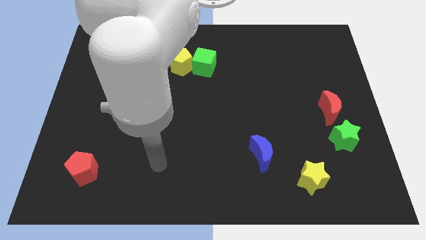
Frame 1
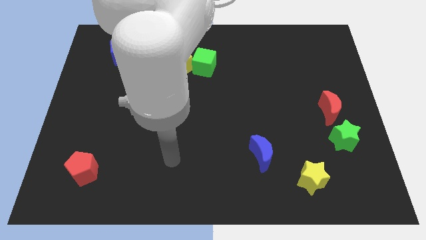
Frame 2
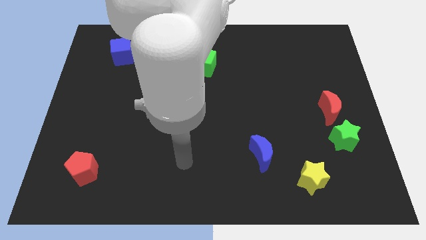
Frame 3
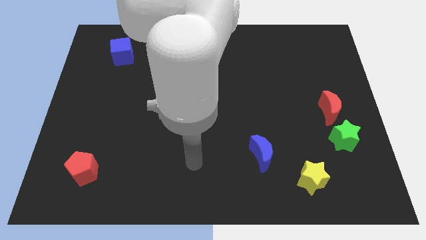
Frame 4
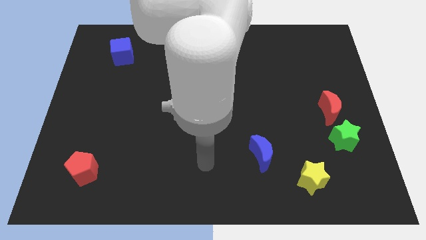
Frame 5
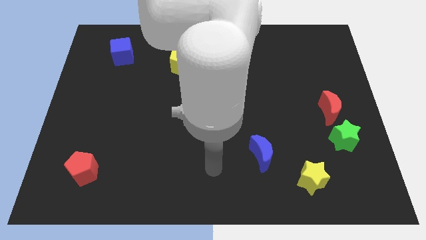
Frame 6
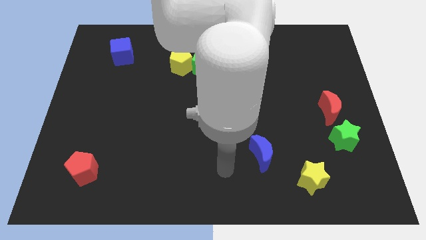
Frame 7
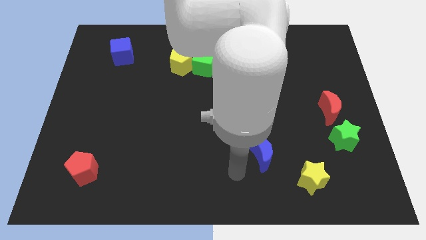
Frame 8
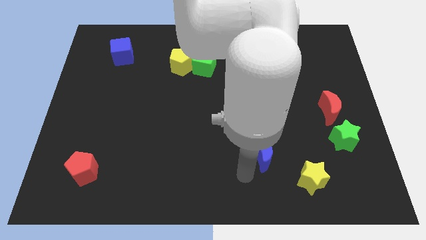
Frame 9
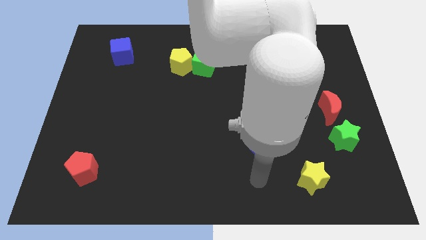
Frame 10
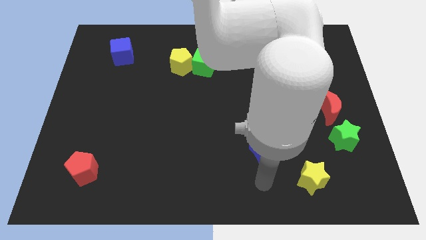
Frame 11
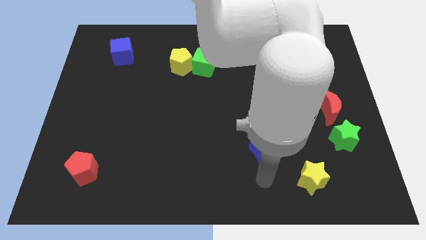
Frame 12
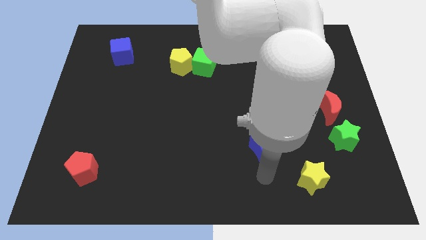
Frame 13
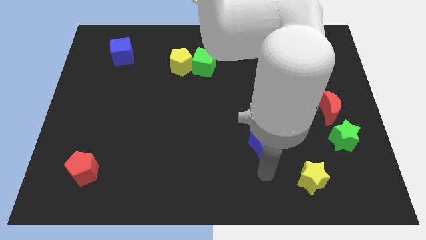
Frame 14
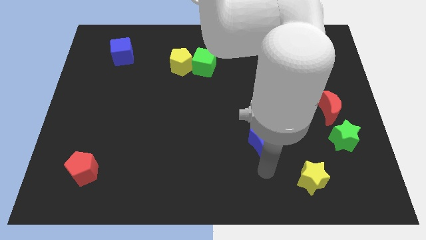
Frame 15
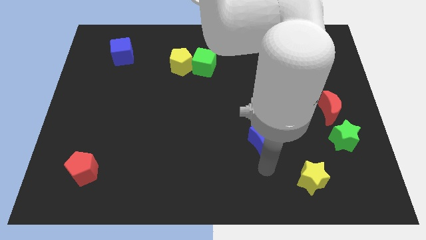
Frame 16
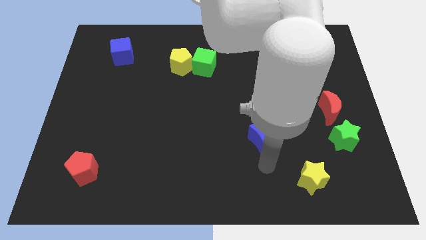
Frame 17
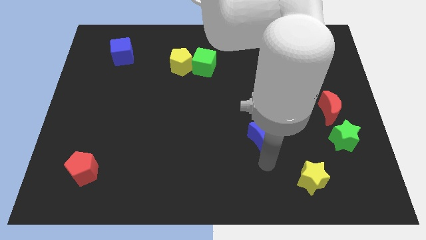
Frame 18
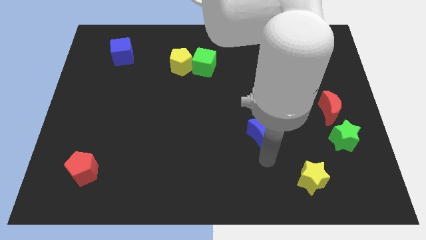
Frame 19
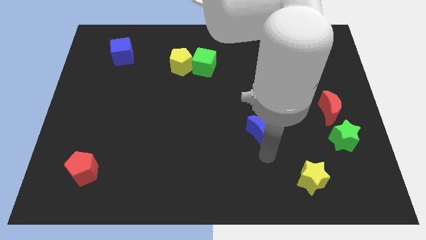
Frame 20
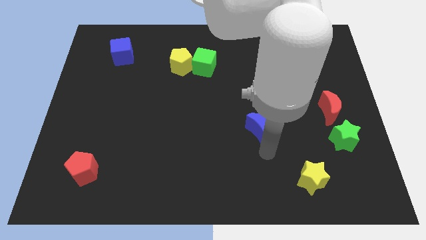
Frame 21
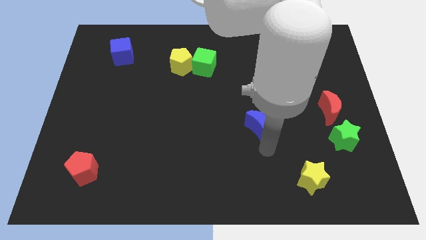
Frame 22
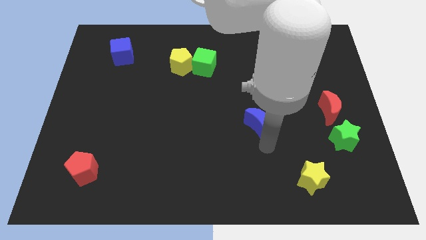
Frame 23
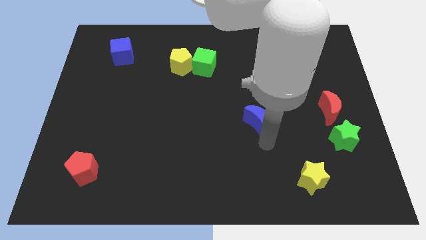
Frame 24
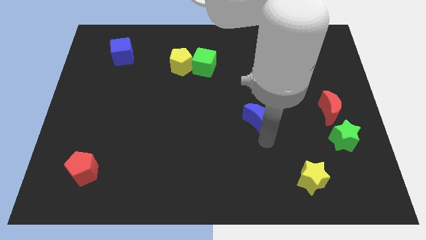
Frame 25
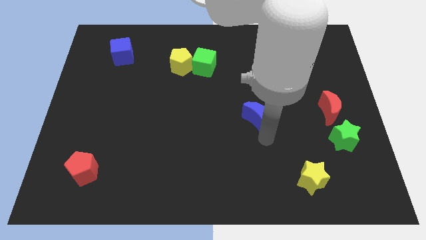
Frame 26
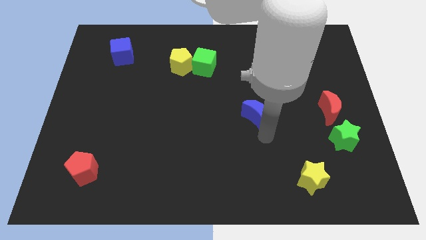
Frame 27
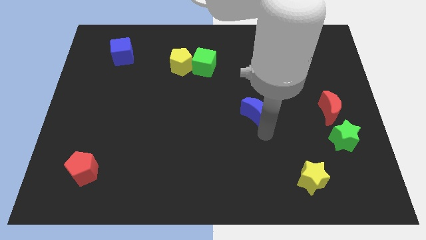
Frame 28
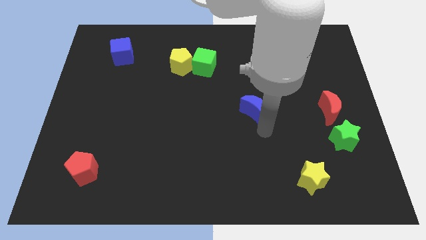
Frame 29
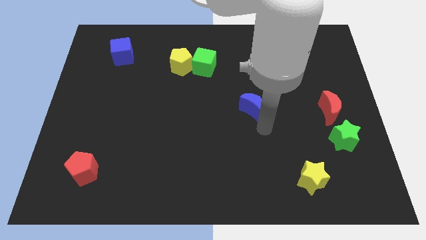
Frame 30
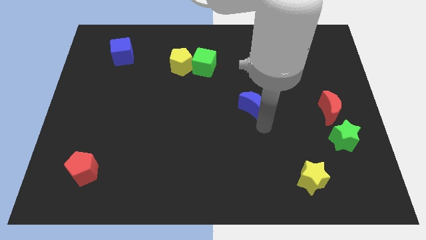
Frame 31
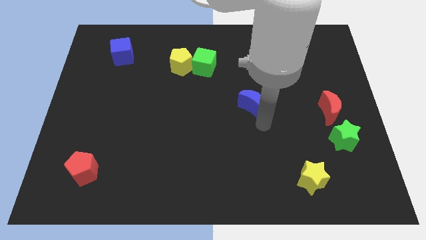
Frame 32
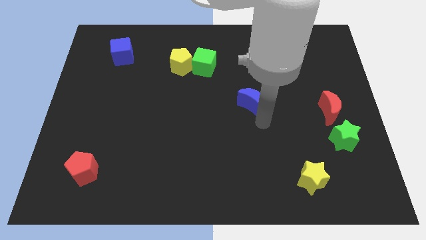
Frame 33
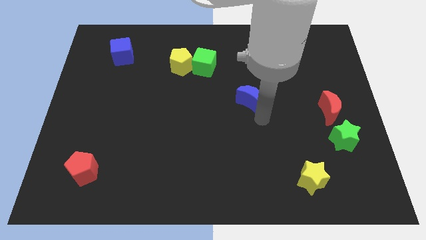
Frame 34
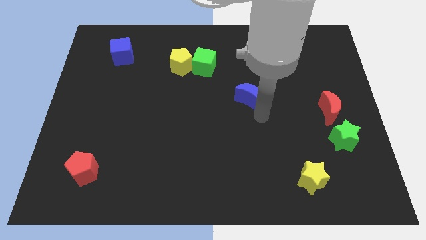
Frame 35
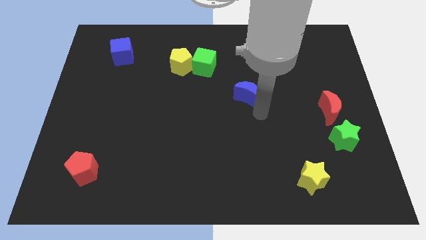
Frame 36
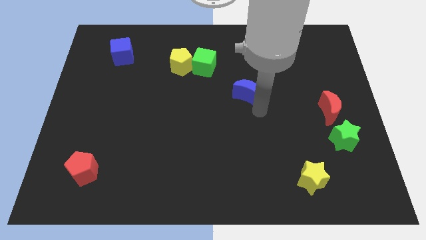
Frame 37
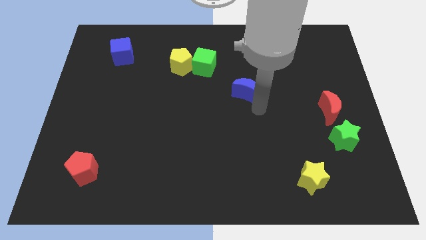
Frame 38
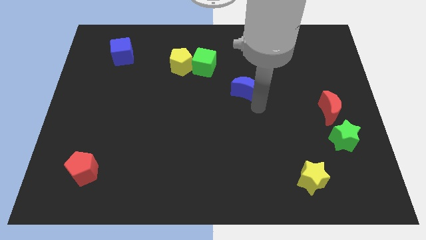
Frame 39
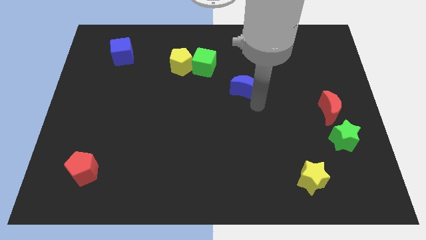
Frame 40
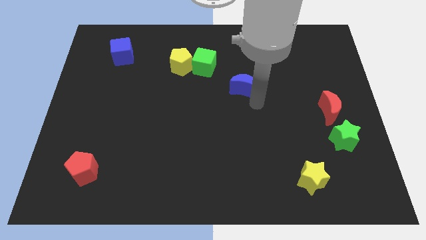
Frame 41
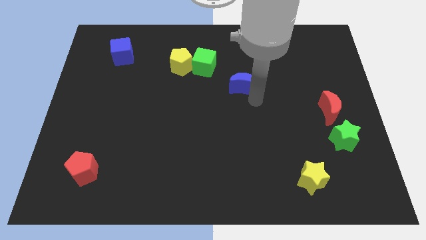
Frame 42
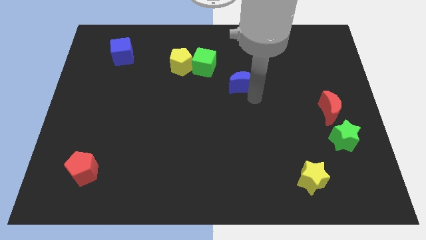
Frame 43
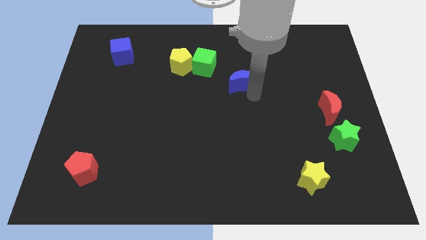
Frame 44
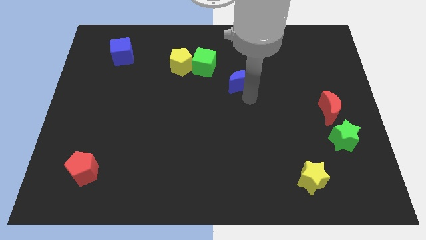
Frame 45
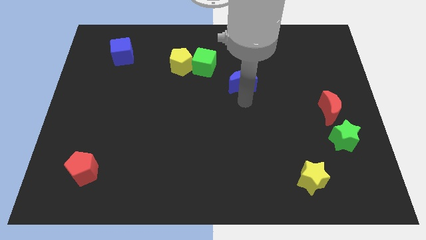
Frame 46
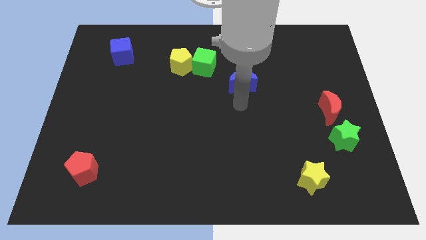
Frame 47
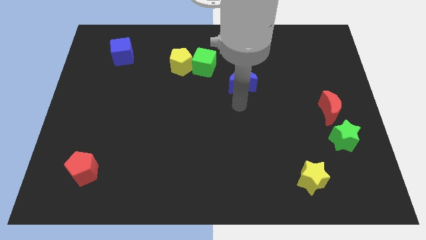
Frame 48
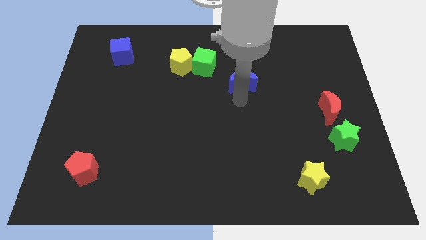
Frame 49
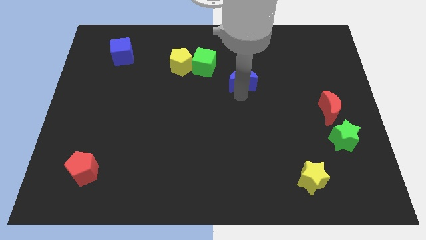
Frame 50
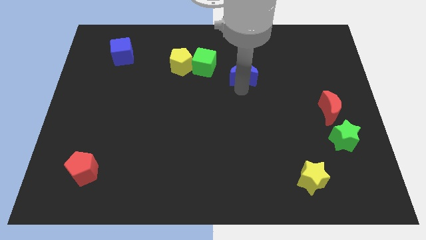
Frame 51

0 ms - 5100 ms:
move the blue moon to the right of the green cube

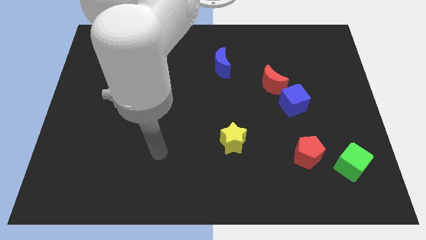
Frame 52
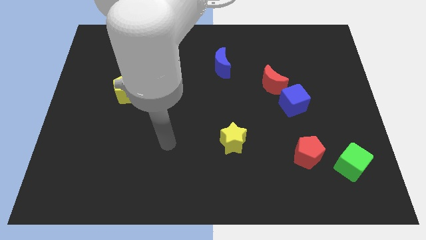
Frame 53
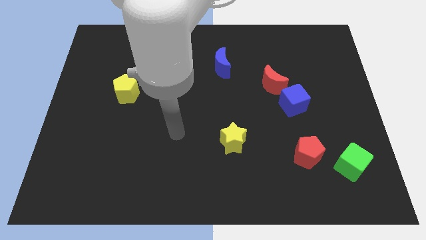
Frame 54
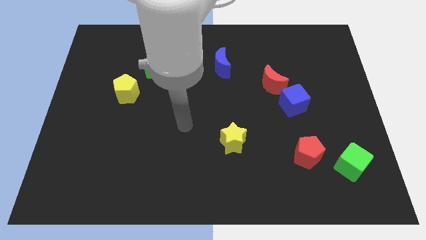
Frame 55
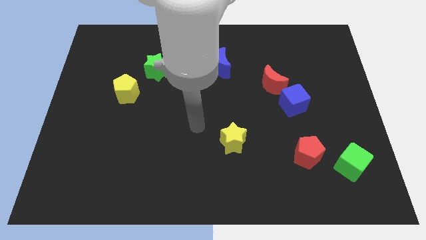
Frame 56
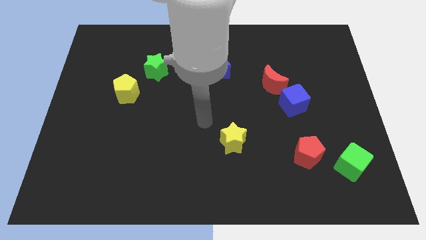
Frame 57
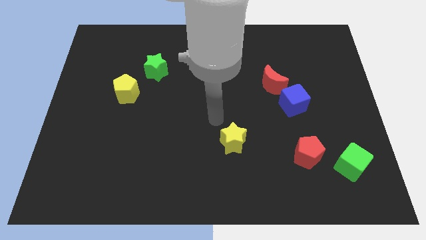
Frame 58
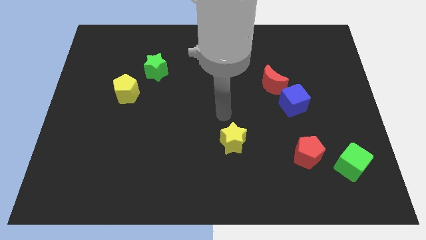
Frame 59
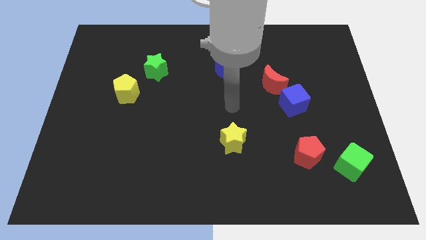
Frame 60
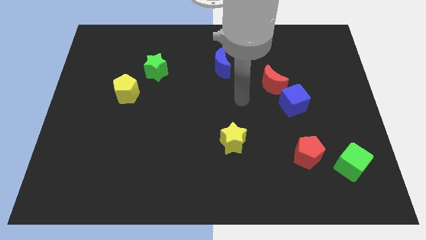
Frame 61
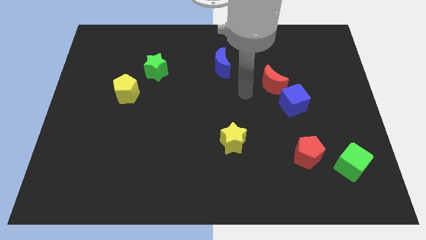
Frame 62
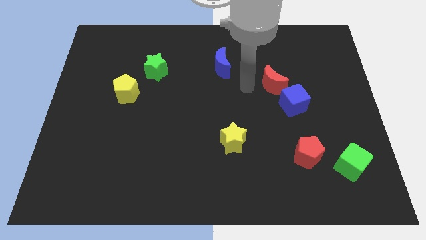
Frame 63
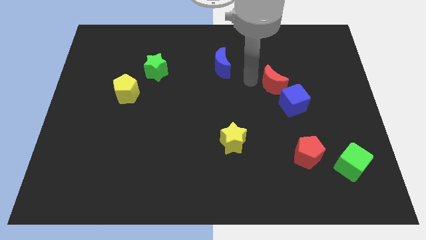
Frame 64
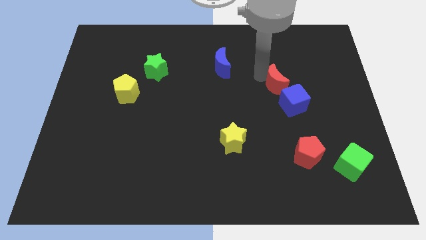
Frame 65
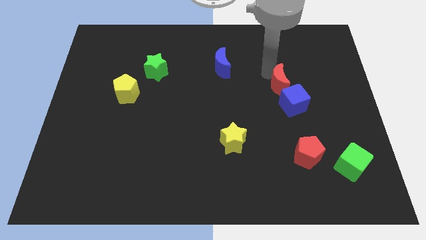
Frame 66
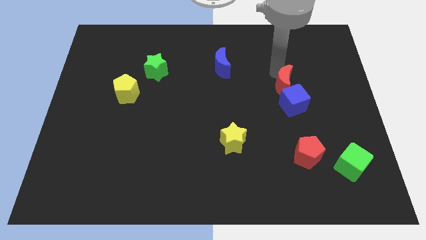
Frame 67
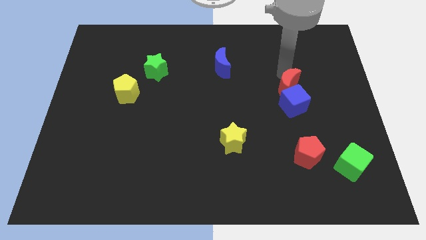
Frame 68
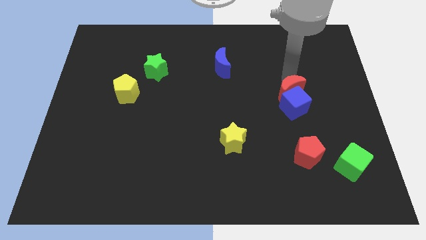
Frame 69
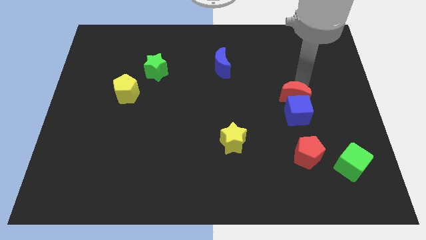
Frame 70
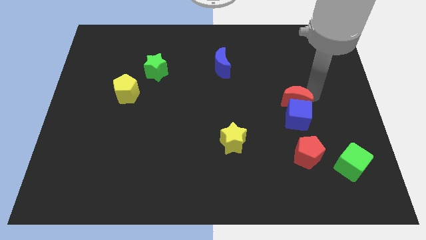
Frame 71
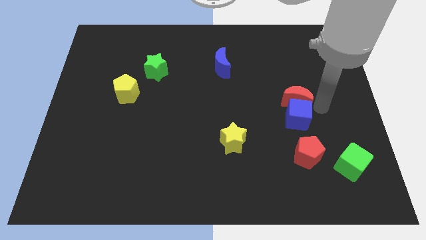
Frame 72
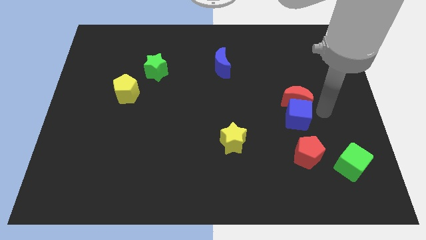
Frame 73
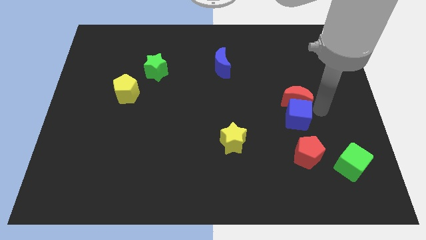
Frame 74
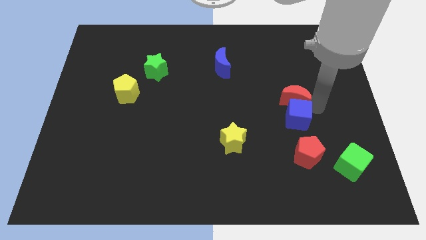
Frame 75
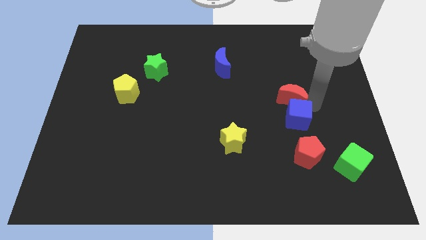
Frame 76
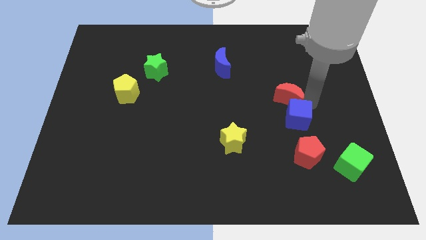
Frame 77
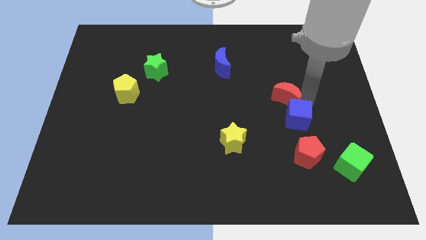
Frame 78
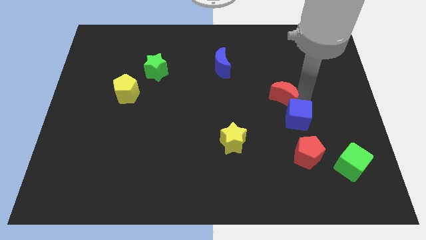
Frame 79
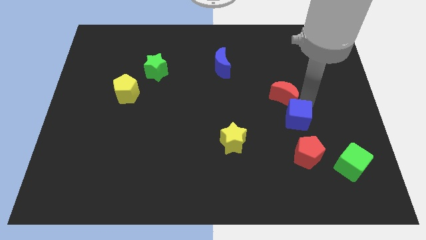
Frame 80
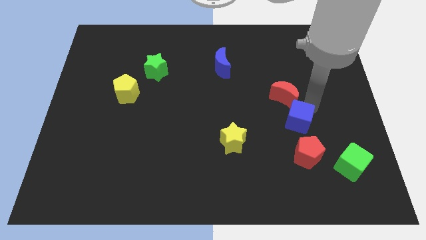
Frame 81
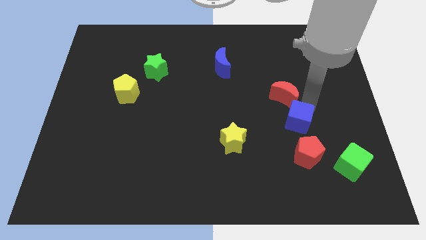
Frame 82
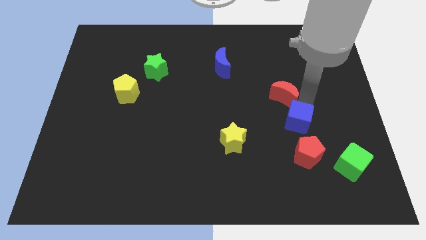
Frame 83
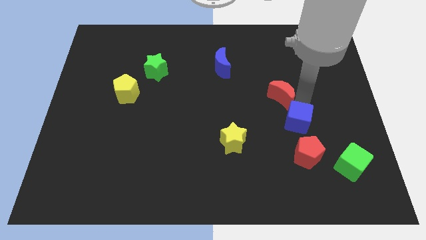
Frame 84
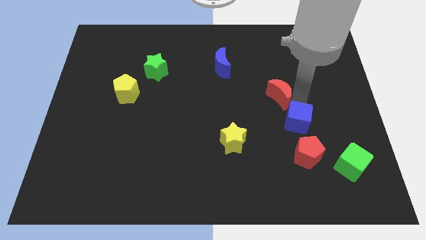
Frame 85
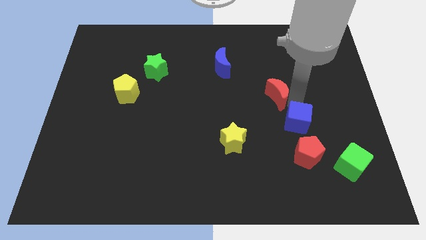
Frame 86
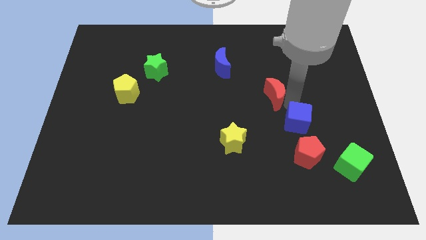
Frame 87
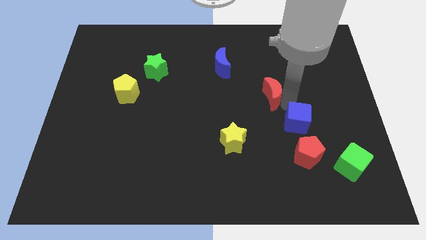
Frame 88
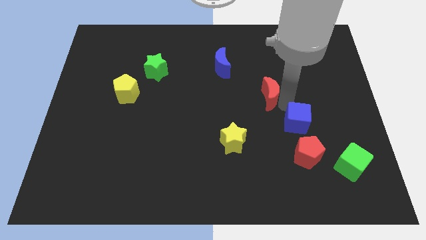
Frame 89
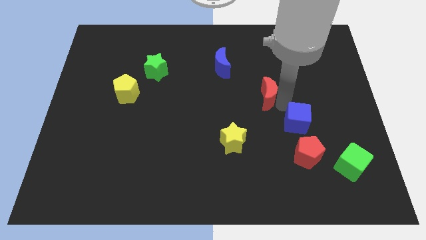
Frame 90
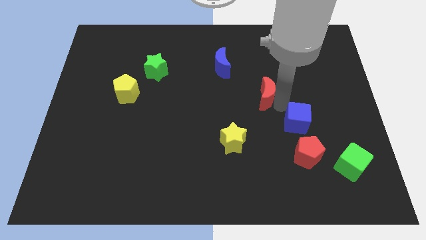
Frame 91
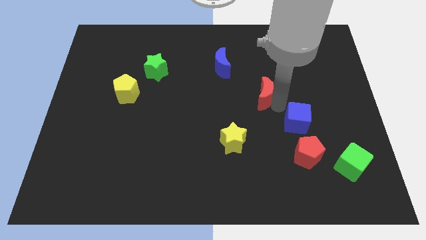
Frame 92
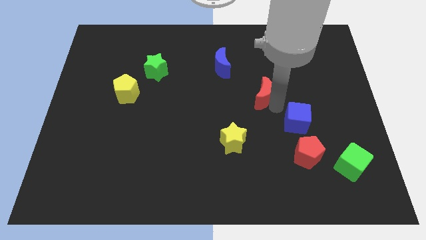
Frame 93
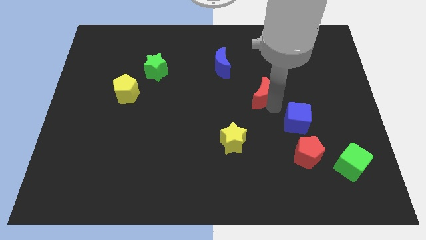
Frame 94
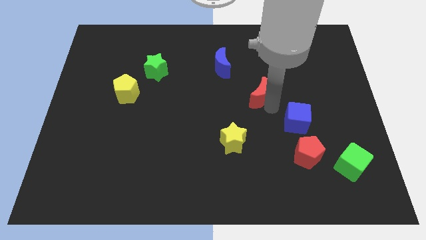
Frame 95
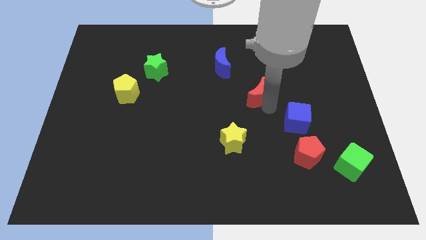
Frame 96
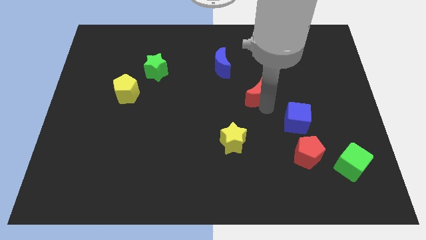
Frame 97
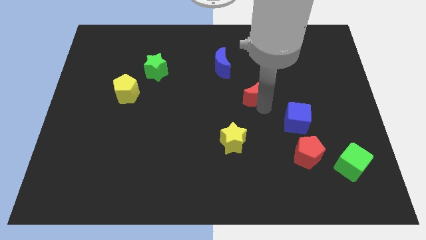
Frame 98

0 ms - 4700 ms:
push the red moon to the bottom right side of the blue moon
